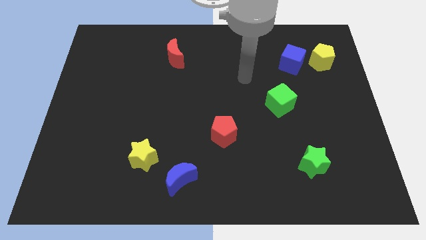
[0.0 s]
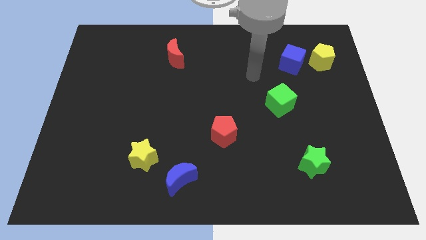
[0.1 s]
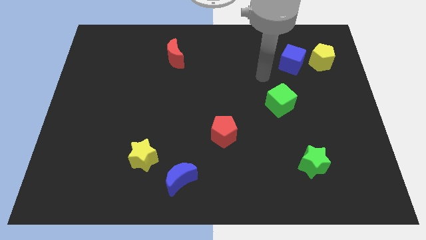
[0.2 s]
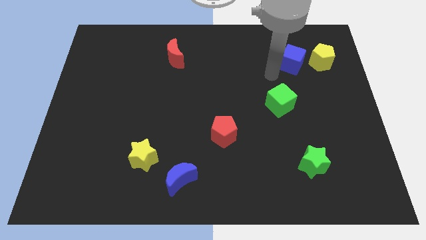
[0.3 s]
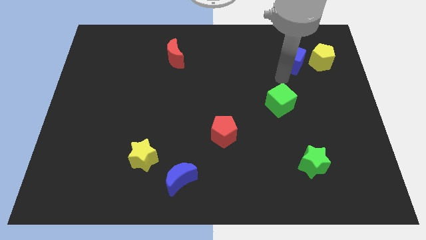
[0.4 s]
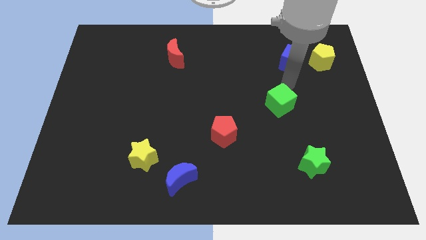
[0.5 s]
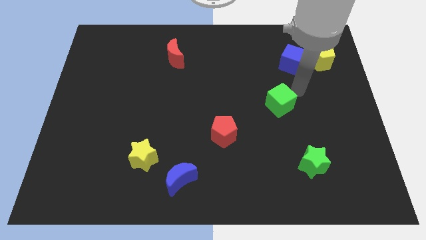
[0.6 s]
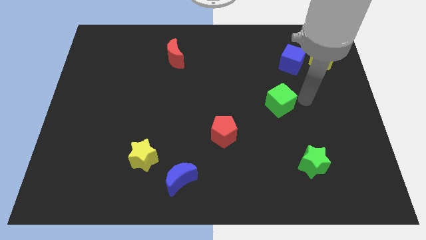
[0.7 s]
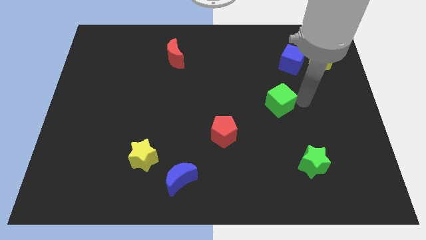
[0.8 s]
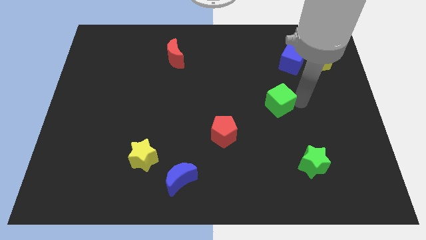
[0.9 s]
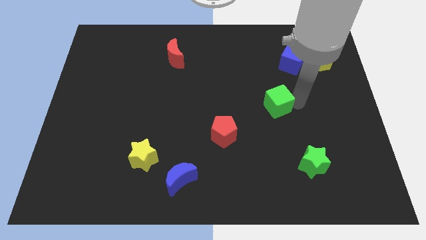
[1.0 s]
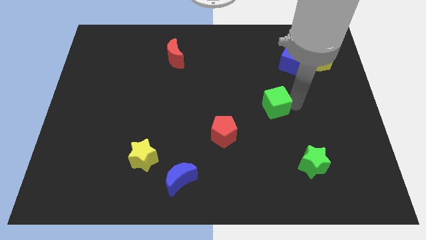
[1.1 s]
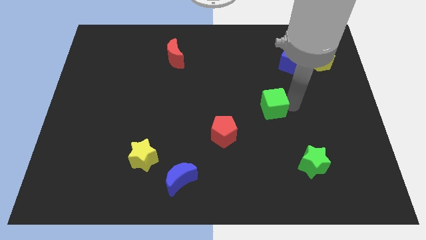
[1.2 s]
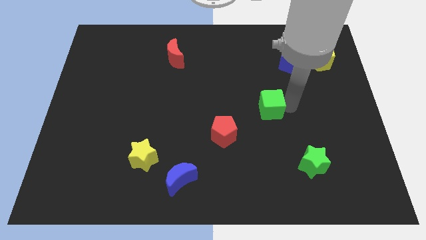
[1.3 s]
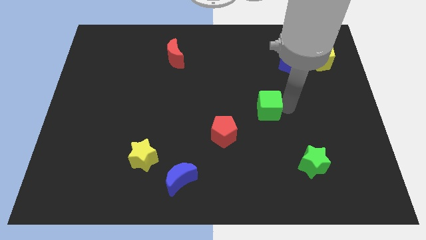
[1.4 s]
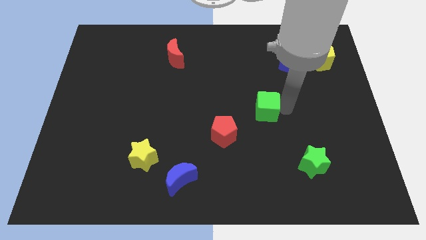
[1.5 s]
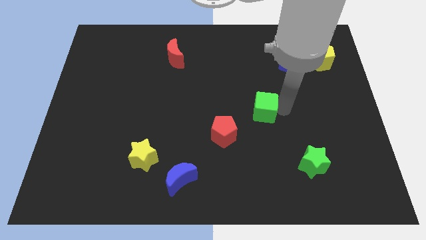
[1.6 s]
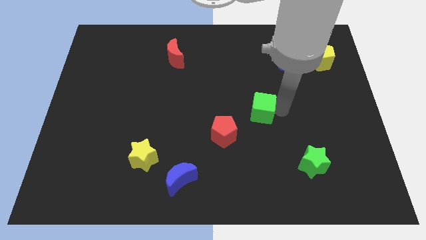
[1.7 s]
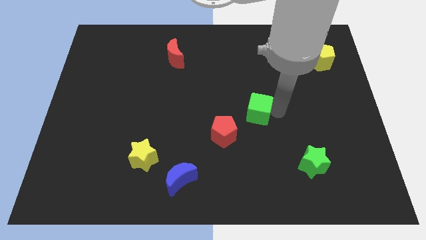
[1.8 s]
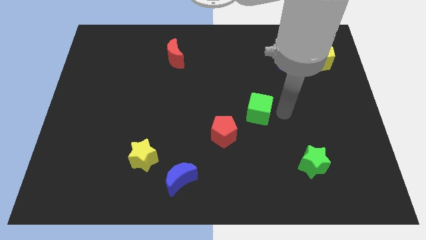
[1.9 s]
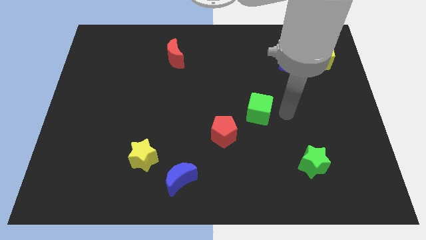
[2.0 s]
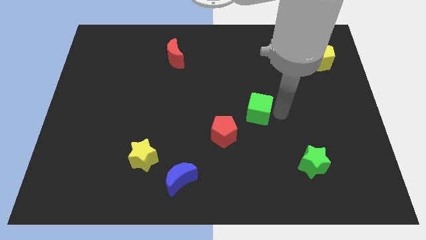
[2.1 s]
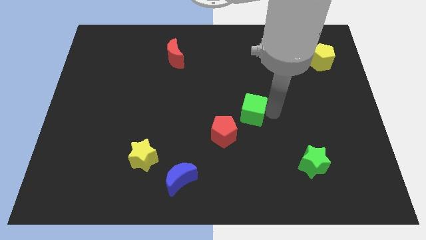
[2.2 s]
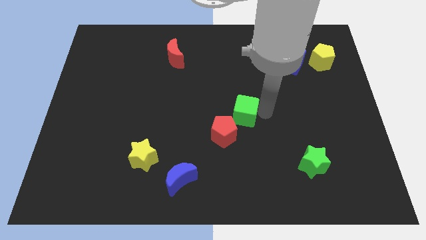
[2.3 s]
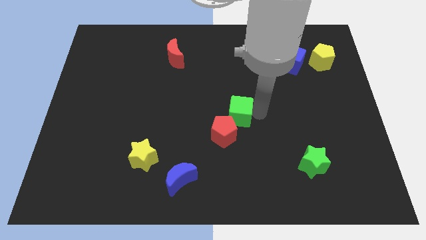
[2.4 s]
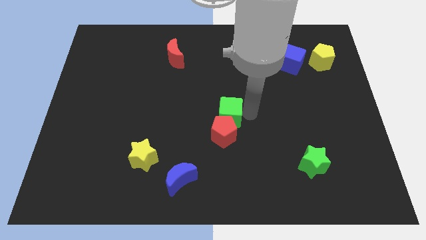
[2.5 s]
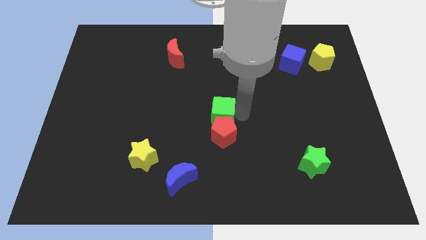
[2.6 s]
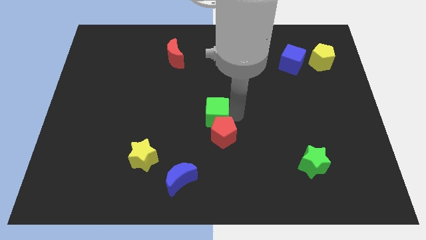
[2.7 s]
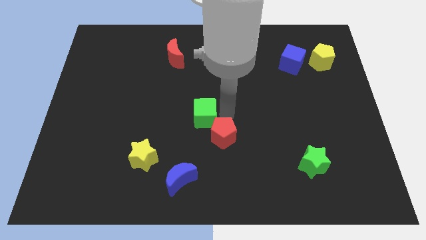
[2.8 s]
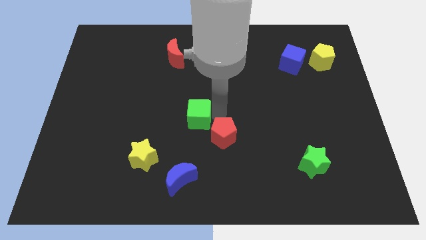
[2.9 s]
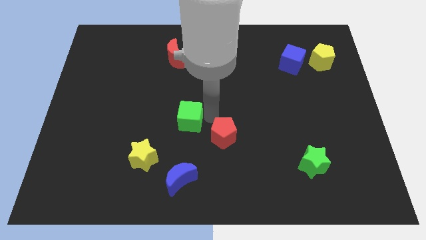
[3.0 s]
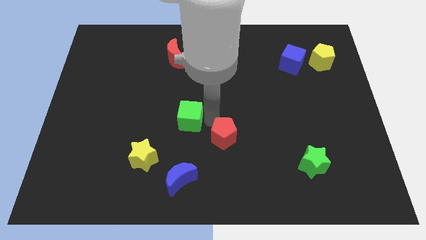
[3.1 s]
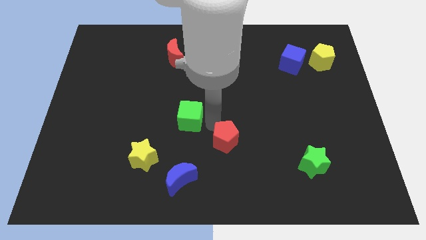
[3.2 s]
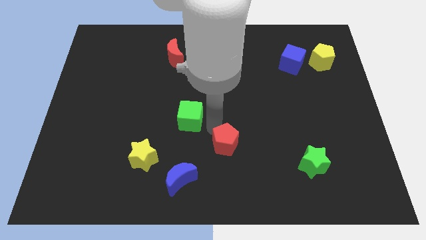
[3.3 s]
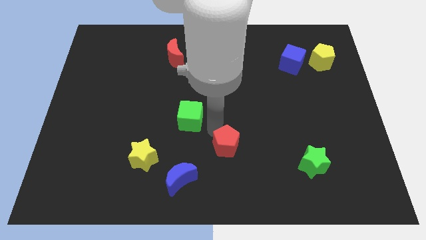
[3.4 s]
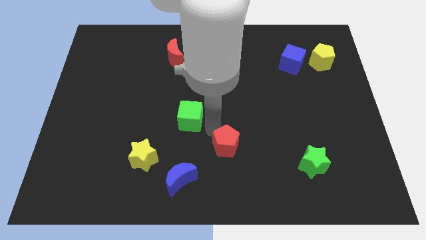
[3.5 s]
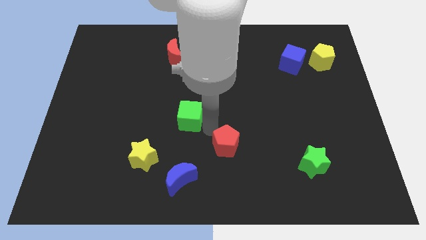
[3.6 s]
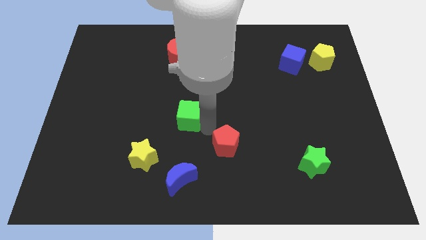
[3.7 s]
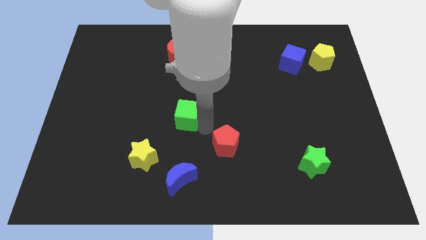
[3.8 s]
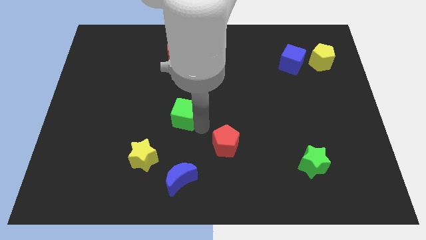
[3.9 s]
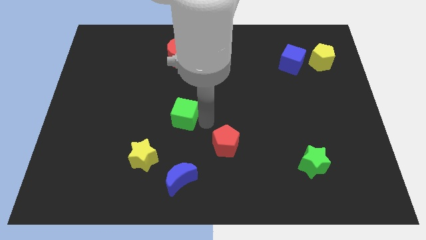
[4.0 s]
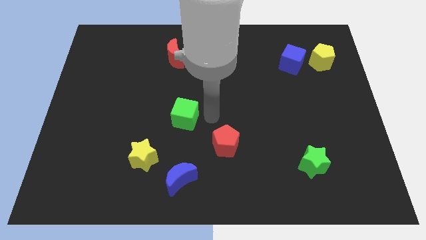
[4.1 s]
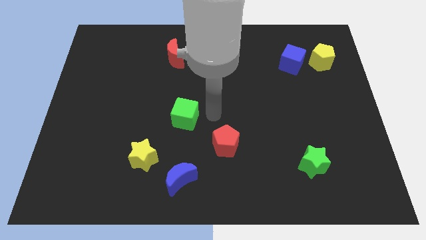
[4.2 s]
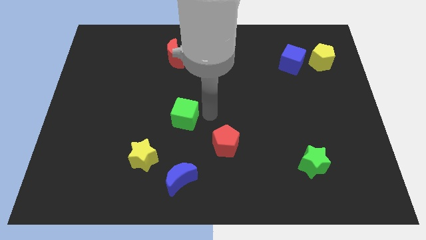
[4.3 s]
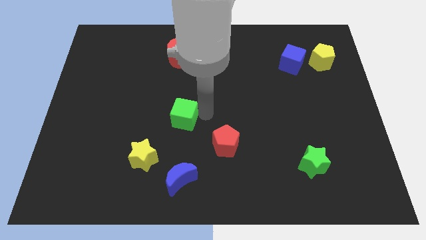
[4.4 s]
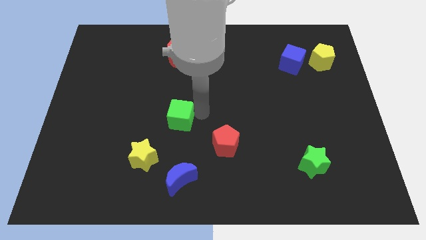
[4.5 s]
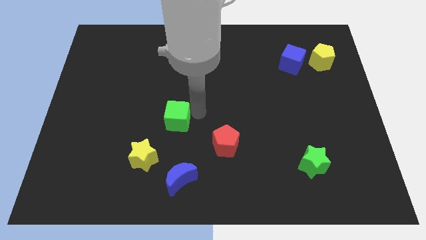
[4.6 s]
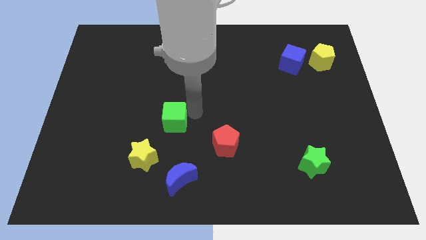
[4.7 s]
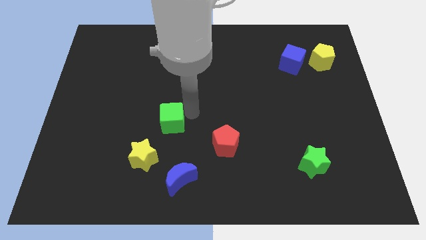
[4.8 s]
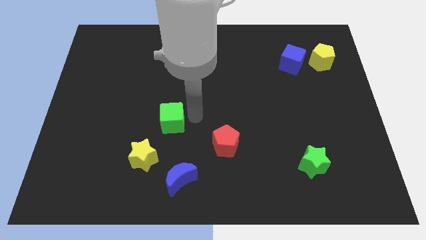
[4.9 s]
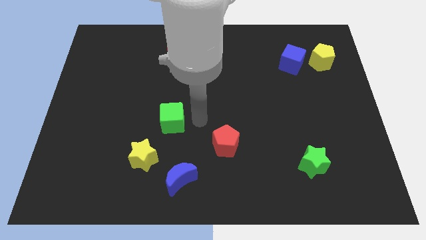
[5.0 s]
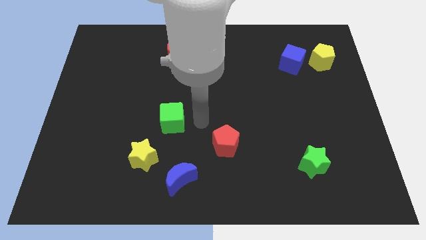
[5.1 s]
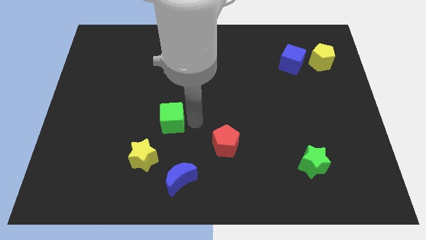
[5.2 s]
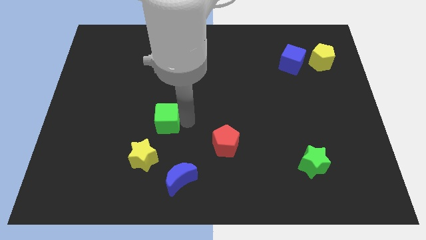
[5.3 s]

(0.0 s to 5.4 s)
move the green cube above the yellow star

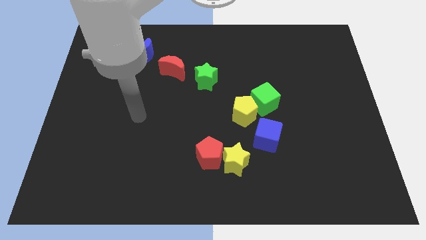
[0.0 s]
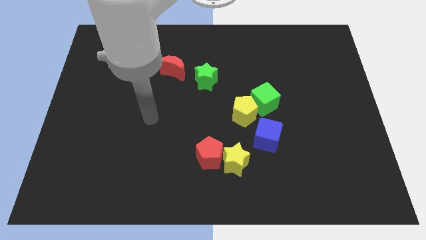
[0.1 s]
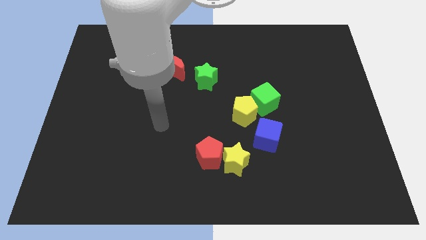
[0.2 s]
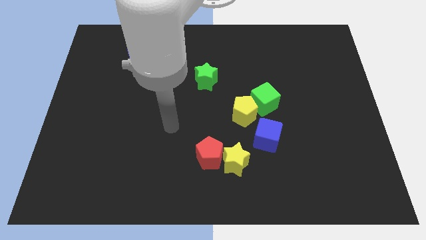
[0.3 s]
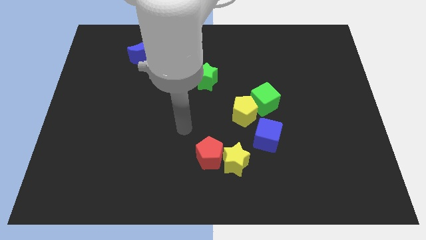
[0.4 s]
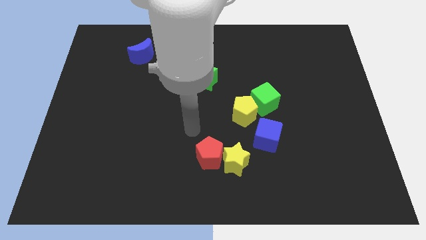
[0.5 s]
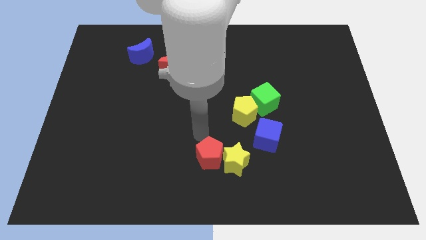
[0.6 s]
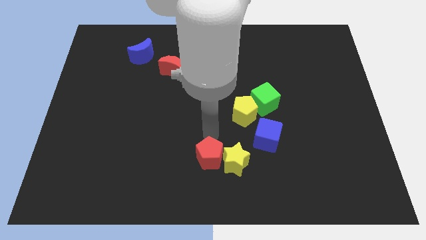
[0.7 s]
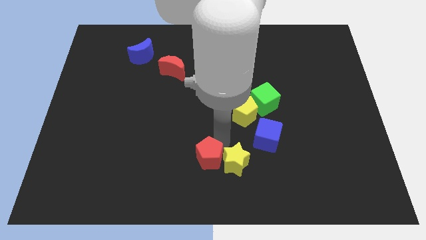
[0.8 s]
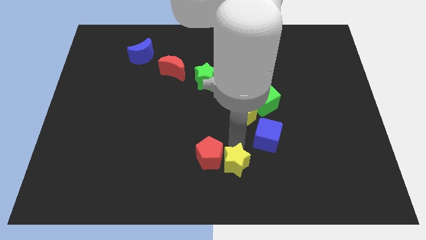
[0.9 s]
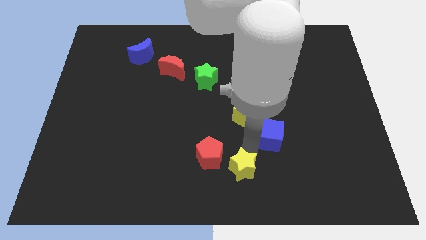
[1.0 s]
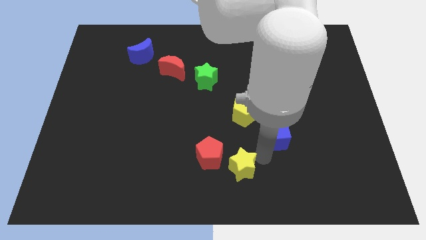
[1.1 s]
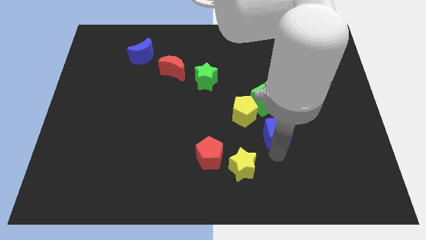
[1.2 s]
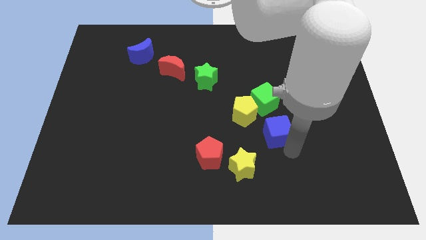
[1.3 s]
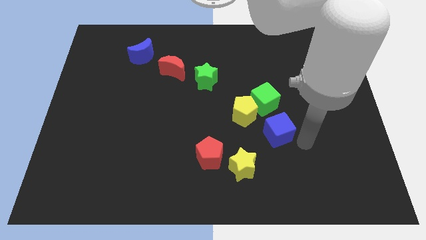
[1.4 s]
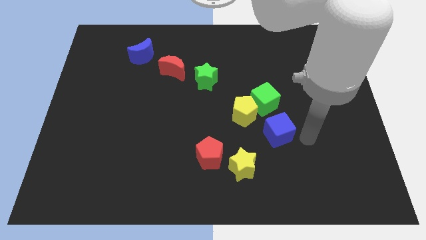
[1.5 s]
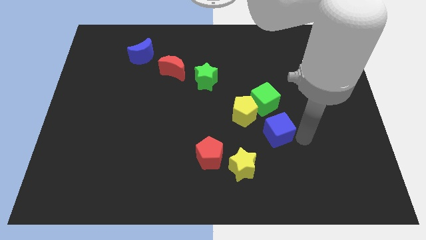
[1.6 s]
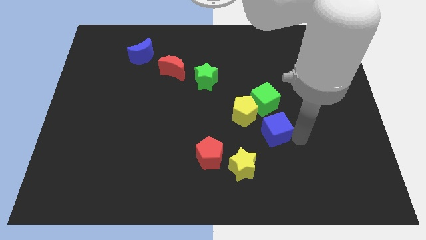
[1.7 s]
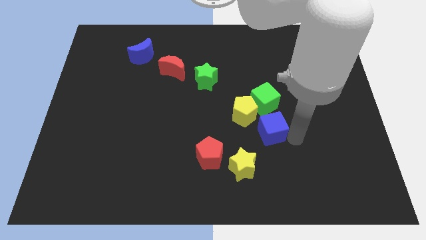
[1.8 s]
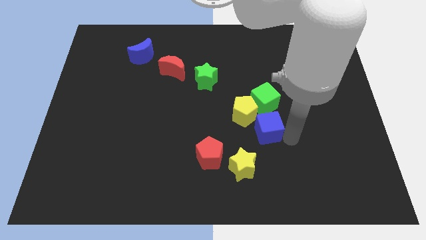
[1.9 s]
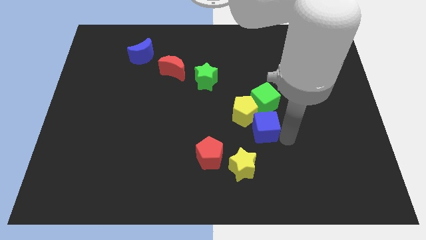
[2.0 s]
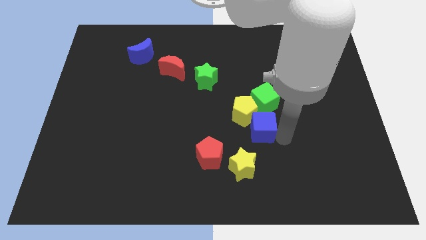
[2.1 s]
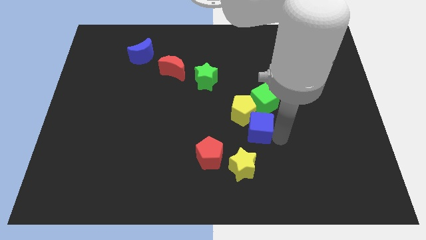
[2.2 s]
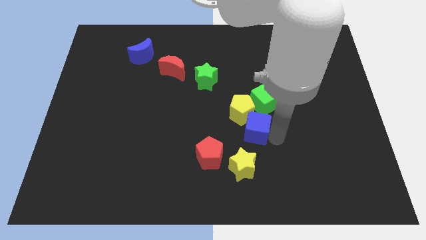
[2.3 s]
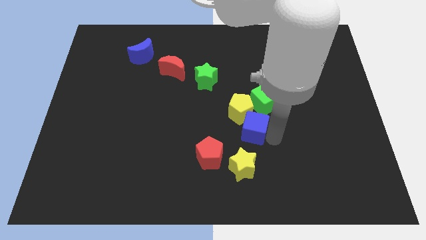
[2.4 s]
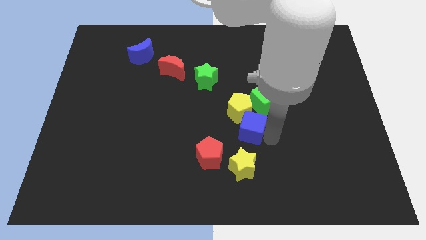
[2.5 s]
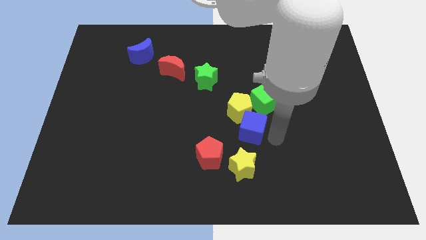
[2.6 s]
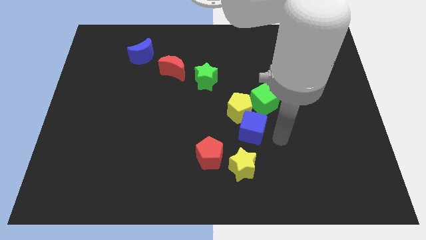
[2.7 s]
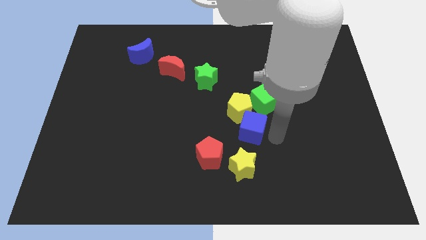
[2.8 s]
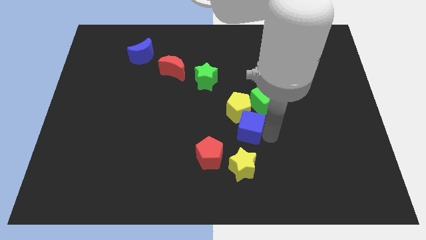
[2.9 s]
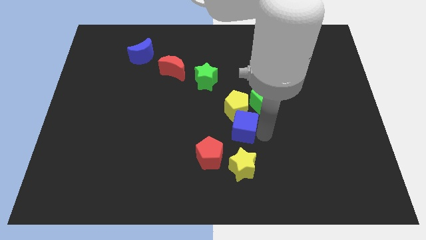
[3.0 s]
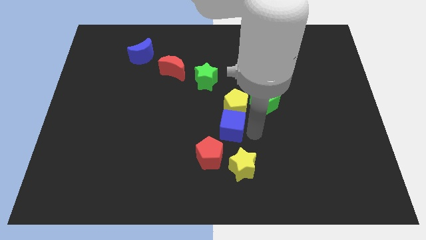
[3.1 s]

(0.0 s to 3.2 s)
push the blue cube to the top of the red pentagon
